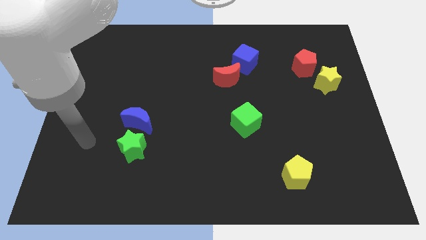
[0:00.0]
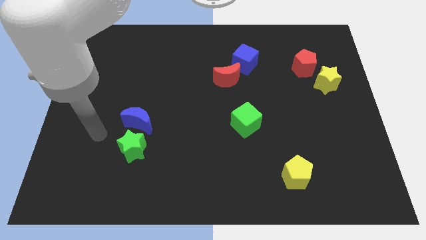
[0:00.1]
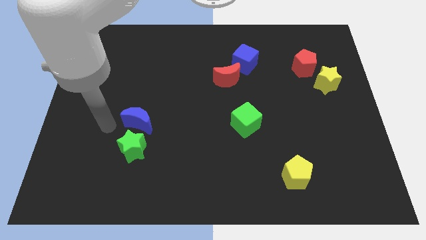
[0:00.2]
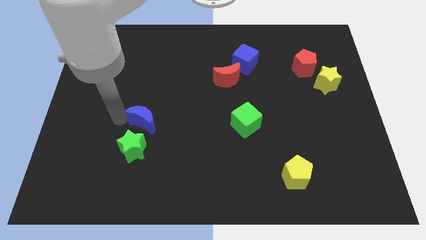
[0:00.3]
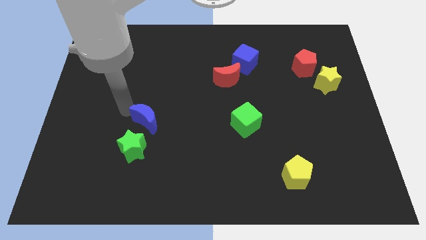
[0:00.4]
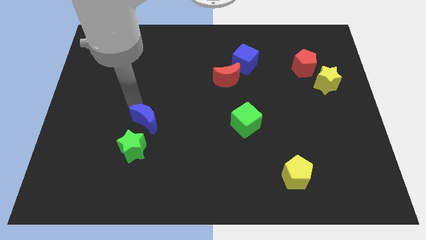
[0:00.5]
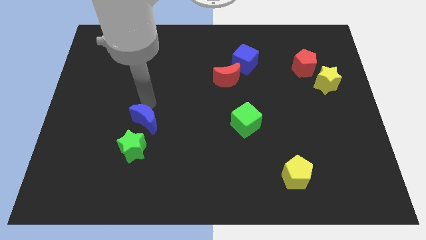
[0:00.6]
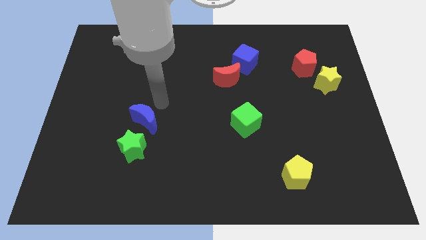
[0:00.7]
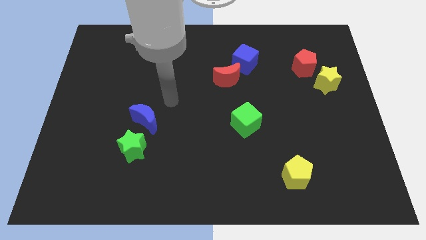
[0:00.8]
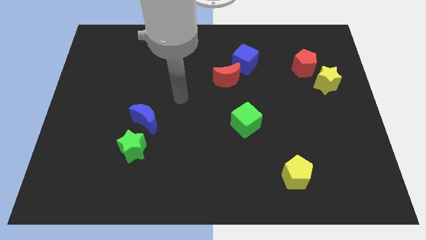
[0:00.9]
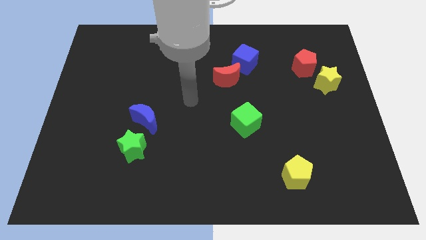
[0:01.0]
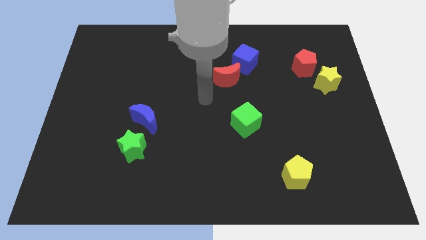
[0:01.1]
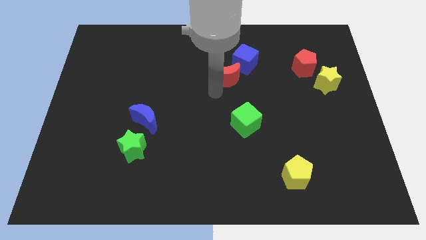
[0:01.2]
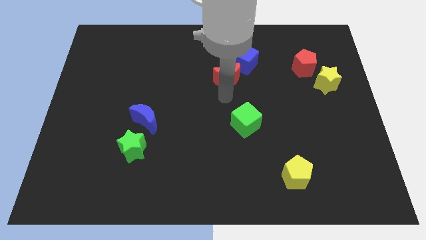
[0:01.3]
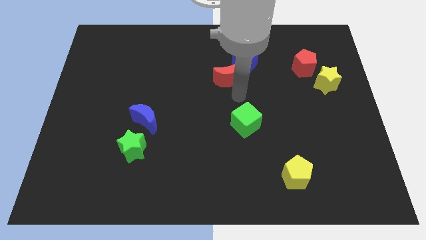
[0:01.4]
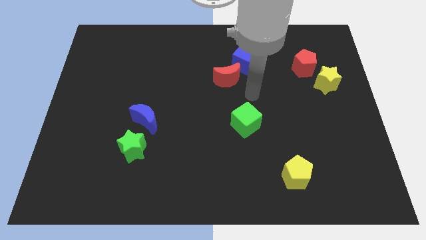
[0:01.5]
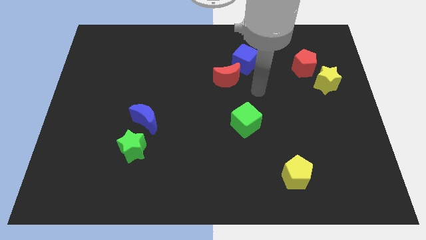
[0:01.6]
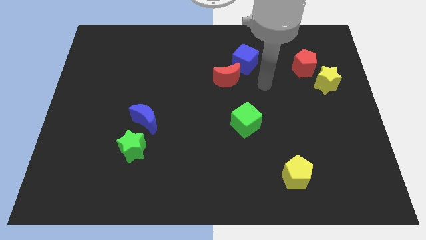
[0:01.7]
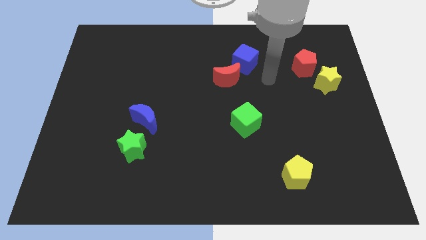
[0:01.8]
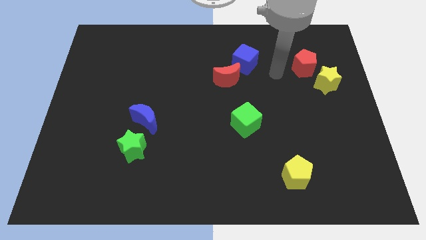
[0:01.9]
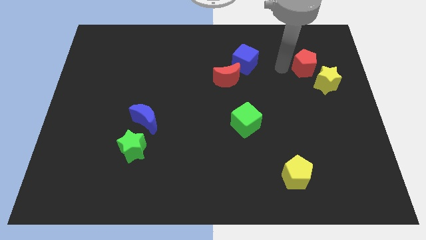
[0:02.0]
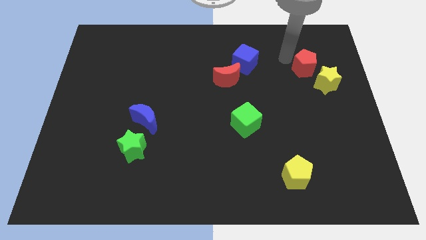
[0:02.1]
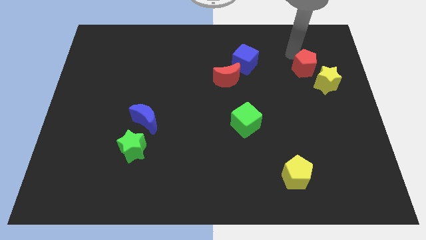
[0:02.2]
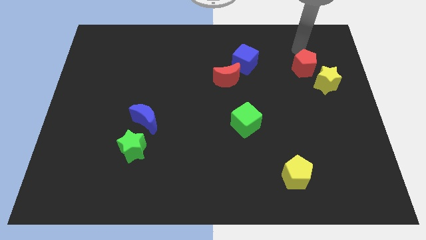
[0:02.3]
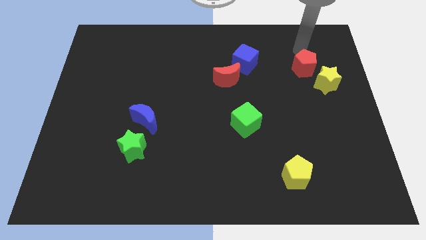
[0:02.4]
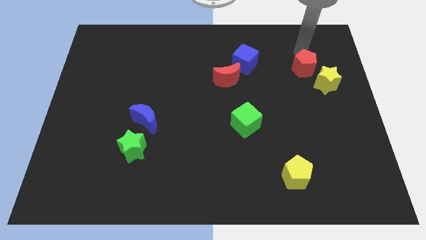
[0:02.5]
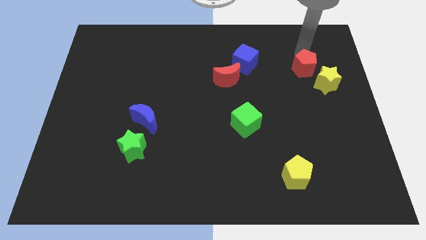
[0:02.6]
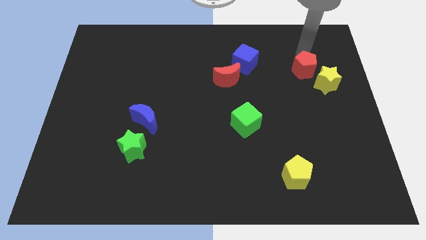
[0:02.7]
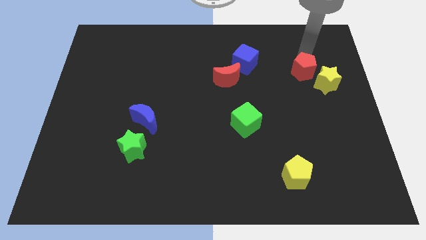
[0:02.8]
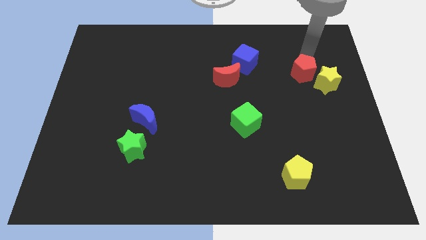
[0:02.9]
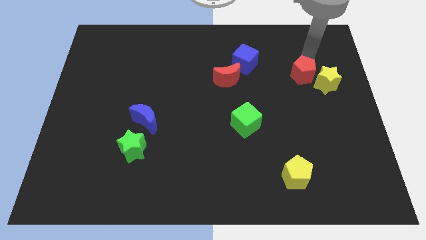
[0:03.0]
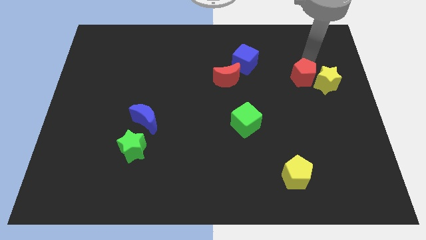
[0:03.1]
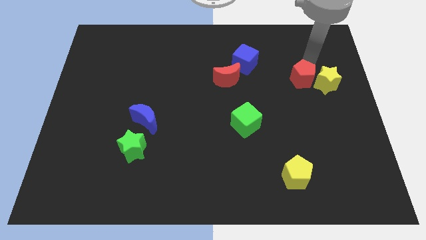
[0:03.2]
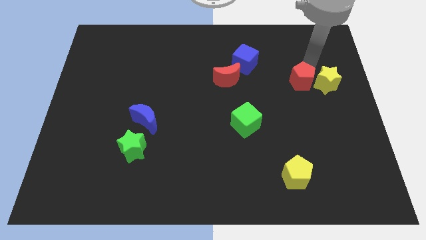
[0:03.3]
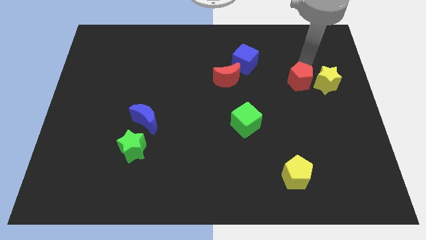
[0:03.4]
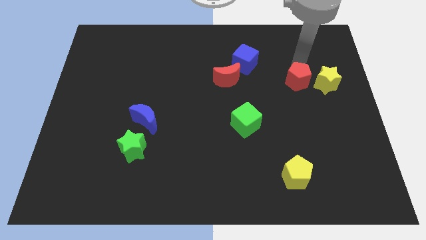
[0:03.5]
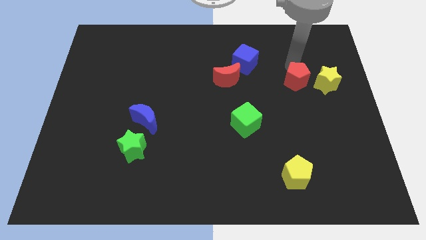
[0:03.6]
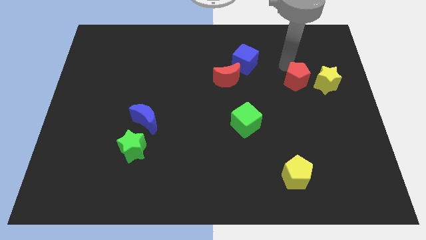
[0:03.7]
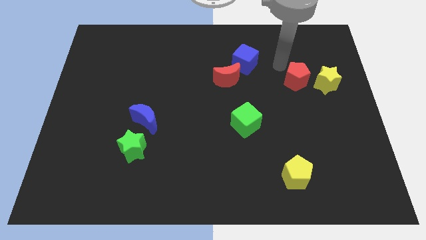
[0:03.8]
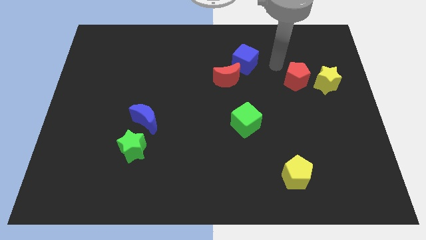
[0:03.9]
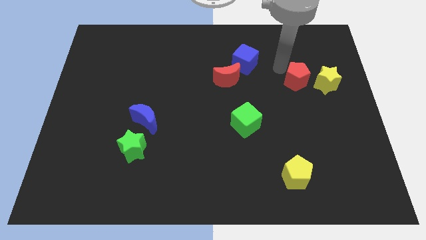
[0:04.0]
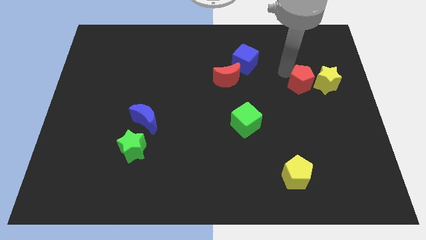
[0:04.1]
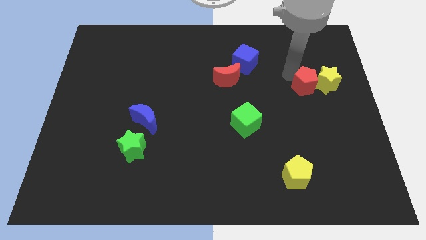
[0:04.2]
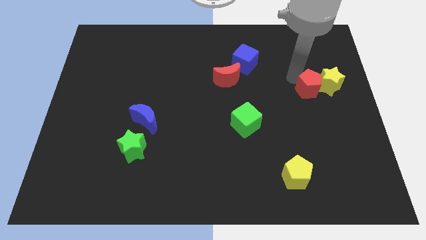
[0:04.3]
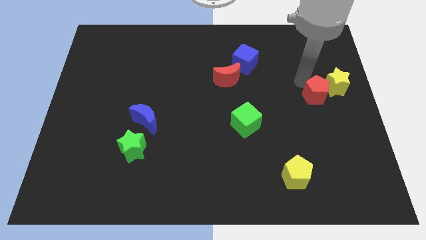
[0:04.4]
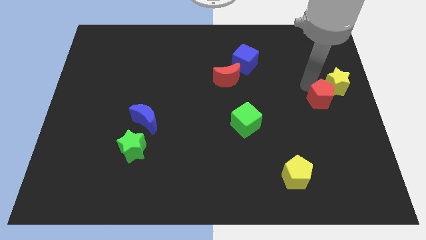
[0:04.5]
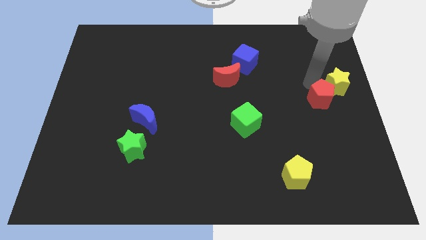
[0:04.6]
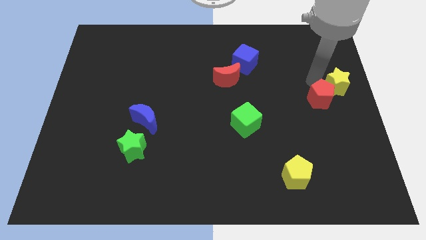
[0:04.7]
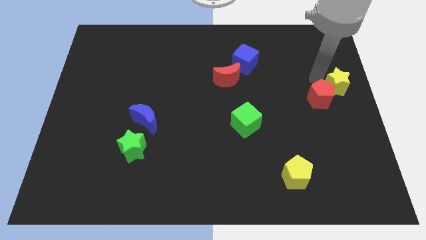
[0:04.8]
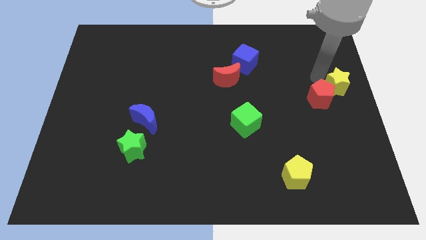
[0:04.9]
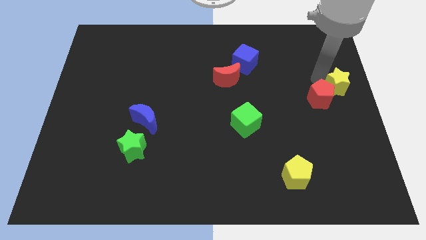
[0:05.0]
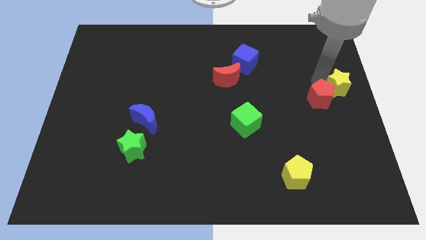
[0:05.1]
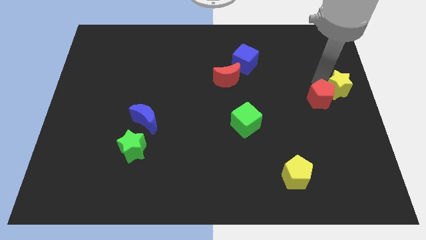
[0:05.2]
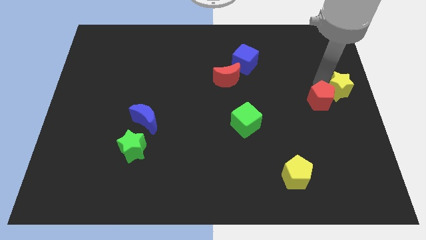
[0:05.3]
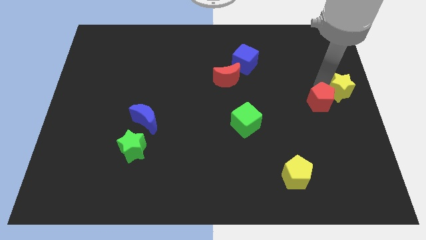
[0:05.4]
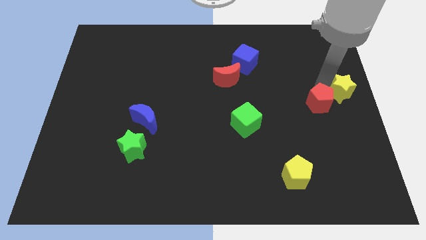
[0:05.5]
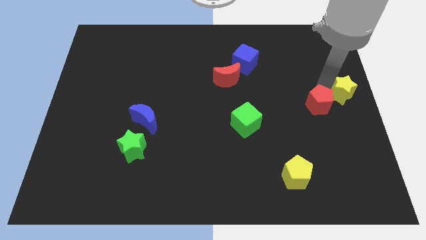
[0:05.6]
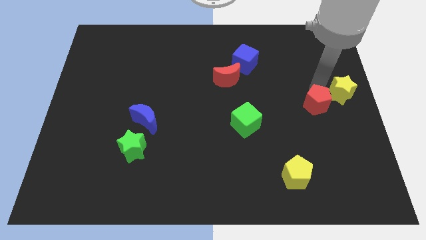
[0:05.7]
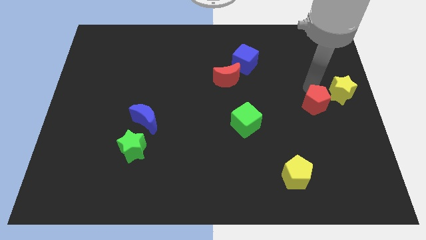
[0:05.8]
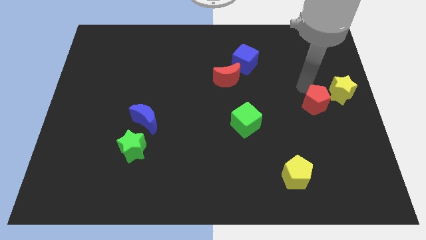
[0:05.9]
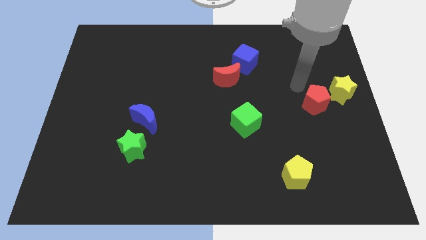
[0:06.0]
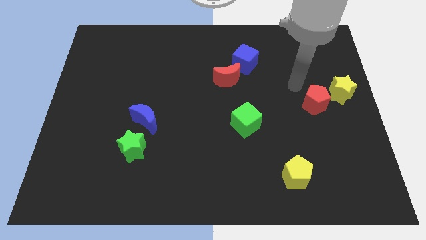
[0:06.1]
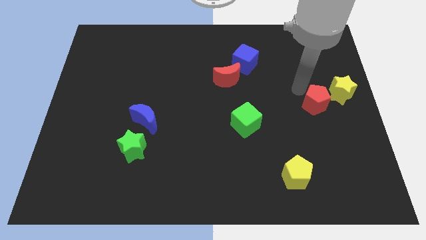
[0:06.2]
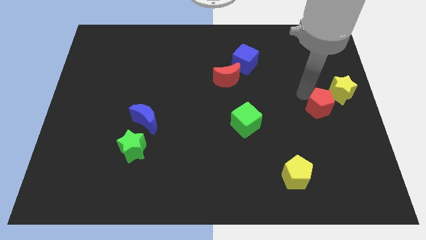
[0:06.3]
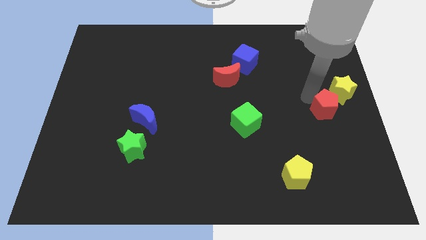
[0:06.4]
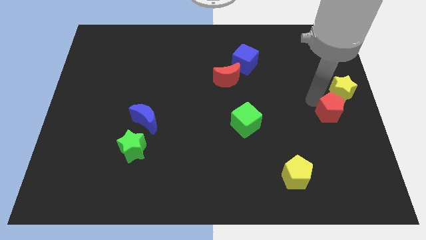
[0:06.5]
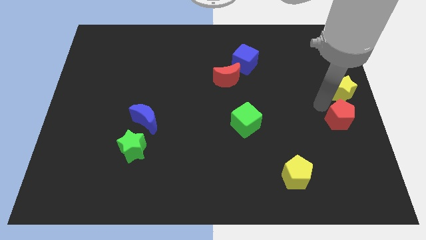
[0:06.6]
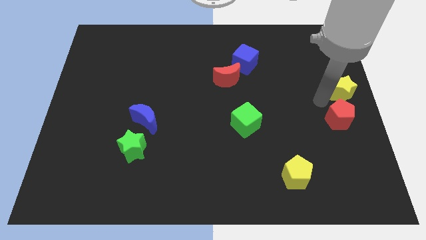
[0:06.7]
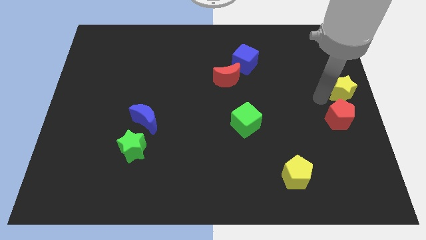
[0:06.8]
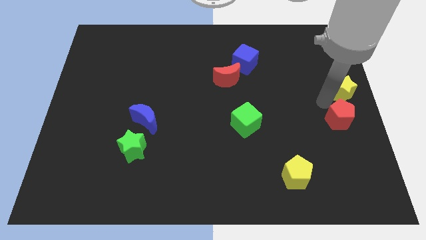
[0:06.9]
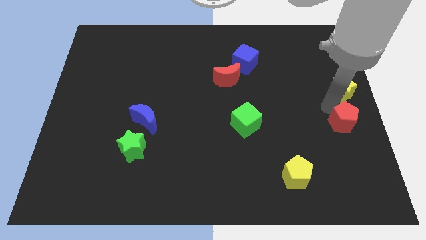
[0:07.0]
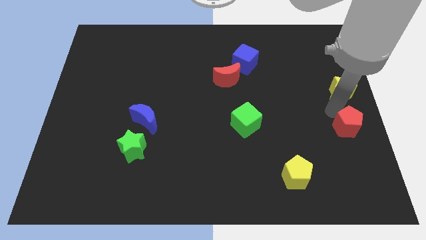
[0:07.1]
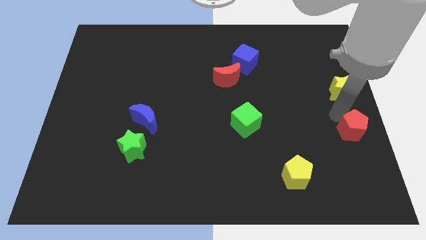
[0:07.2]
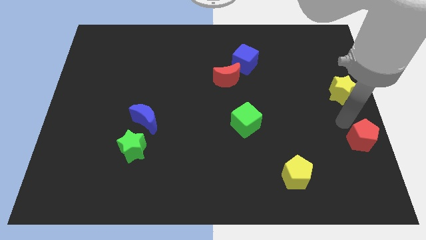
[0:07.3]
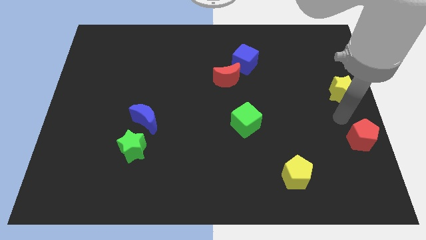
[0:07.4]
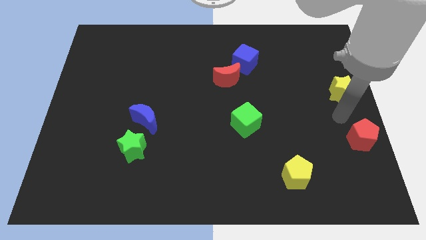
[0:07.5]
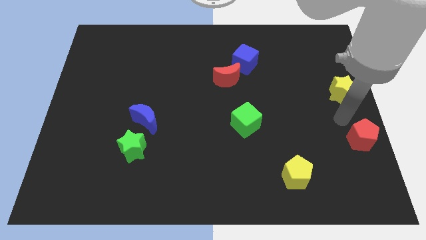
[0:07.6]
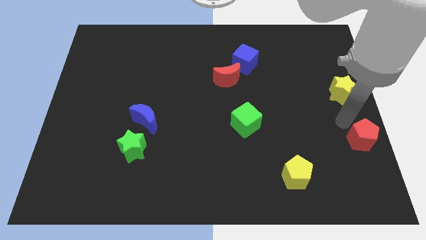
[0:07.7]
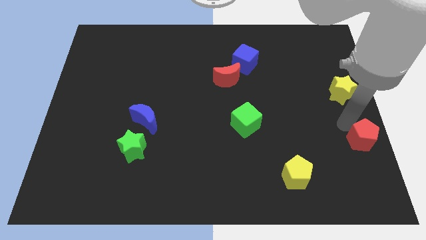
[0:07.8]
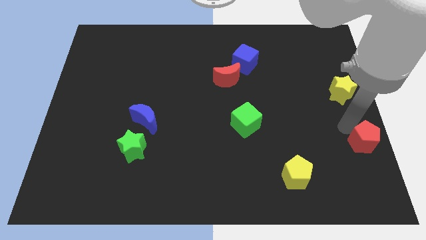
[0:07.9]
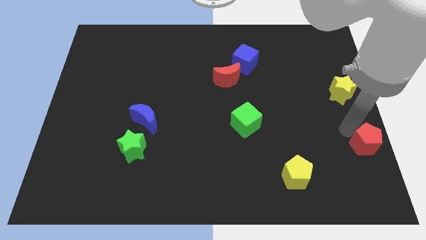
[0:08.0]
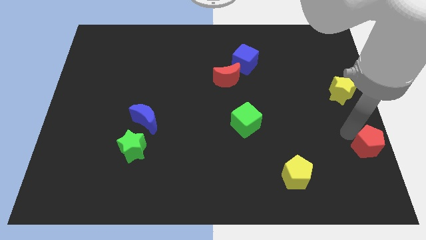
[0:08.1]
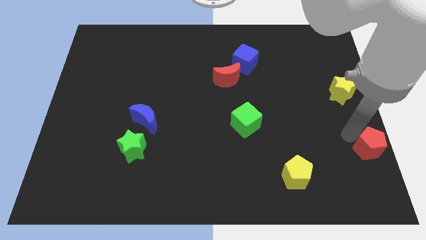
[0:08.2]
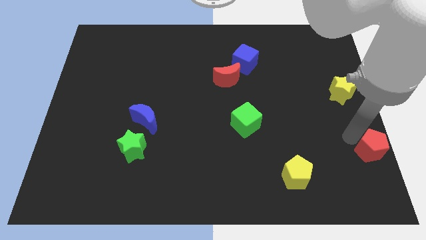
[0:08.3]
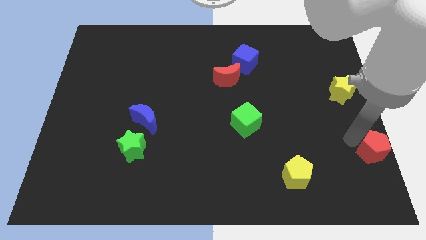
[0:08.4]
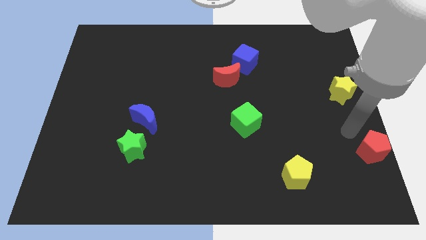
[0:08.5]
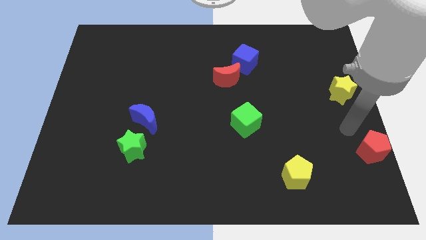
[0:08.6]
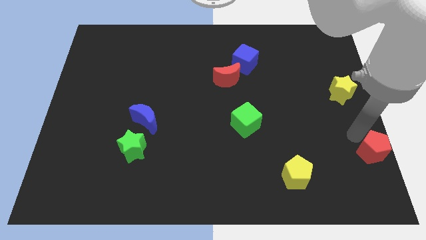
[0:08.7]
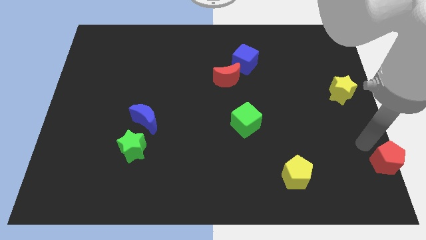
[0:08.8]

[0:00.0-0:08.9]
push the red pentagon to the bottom right of the board
